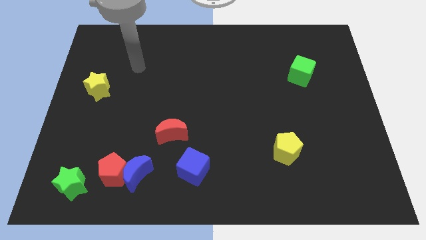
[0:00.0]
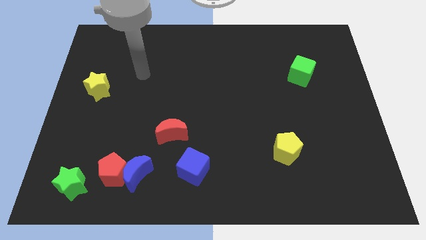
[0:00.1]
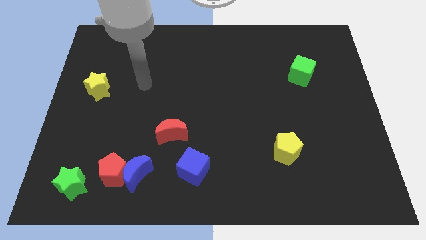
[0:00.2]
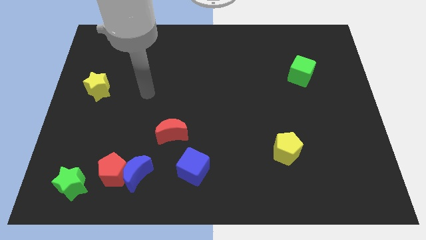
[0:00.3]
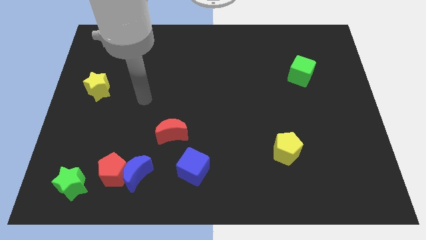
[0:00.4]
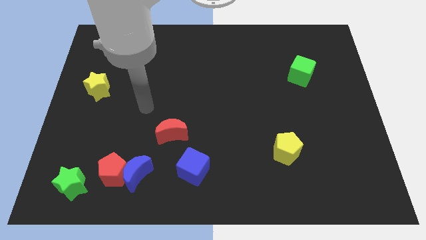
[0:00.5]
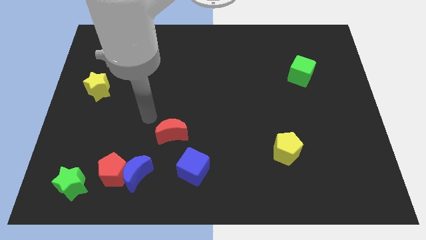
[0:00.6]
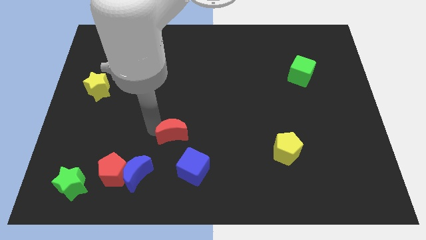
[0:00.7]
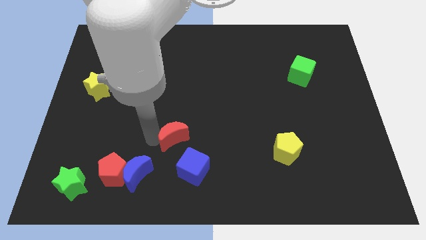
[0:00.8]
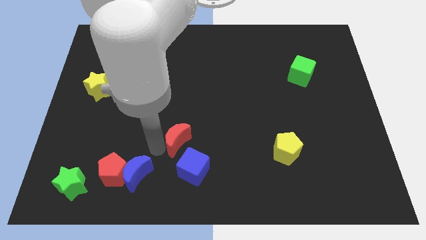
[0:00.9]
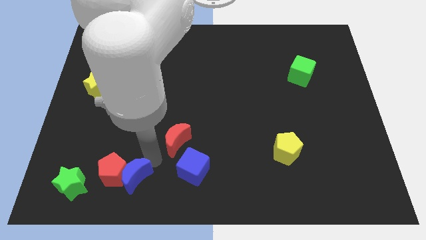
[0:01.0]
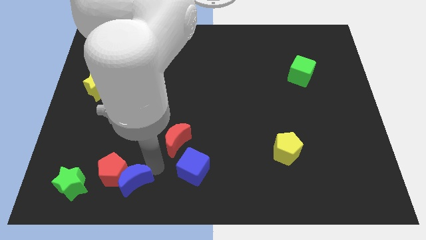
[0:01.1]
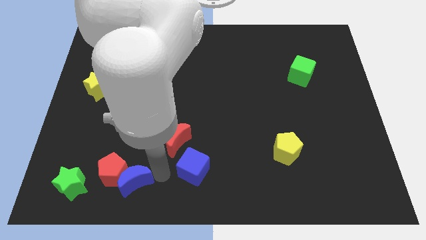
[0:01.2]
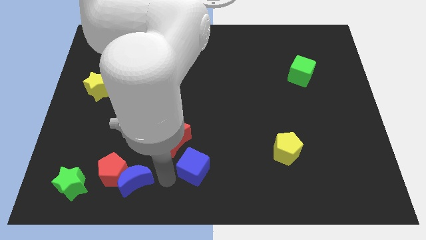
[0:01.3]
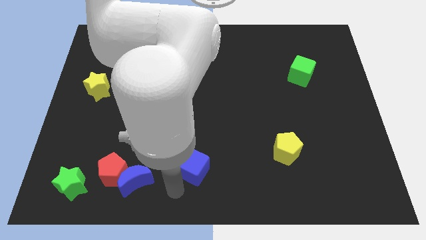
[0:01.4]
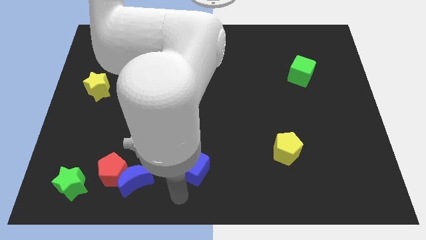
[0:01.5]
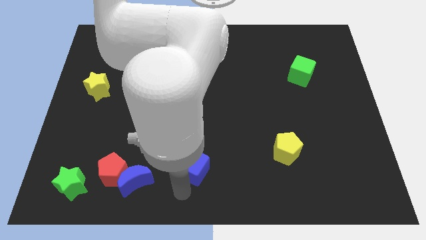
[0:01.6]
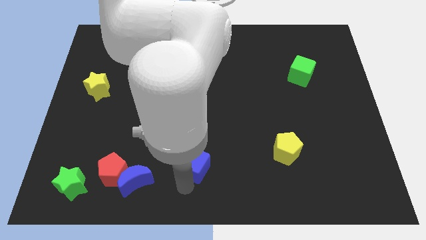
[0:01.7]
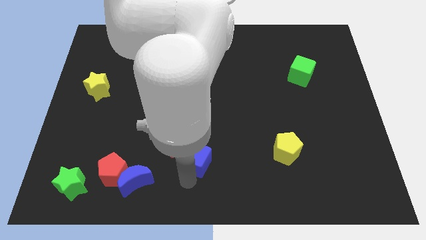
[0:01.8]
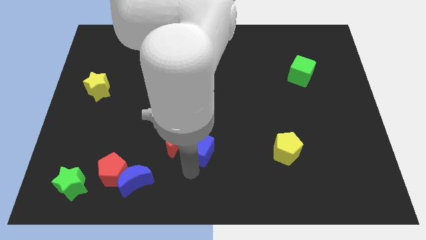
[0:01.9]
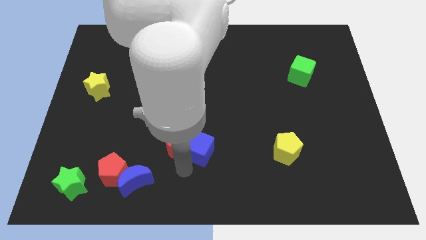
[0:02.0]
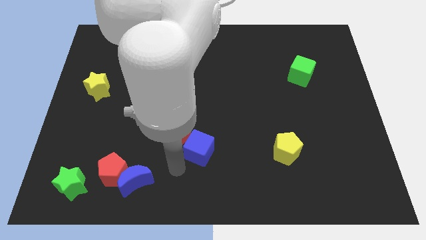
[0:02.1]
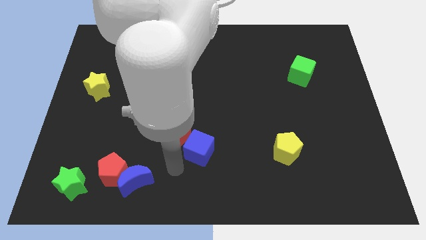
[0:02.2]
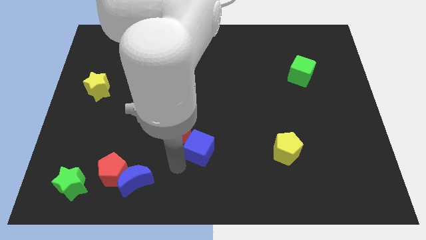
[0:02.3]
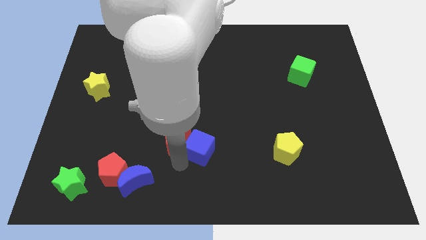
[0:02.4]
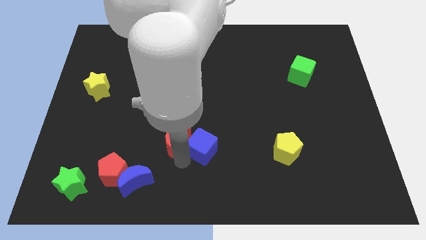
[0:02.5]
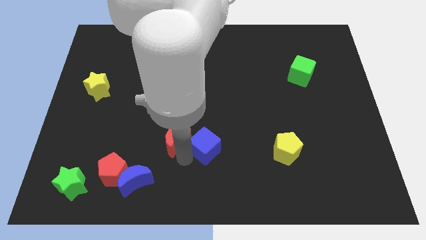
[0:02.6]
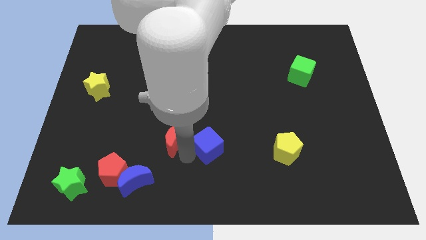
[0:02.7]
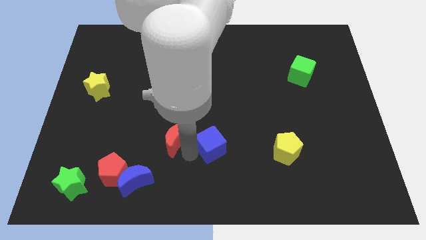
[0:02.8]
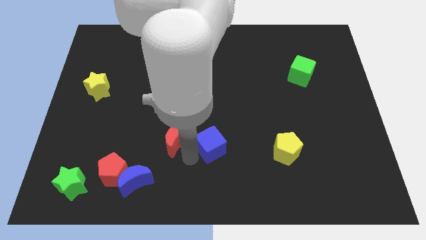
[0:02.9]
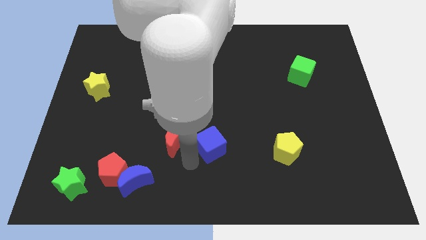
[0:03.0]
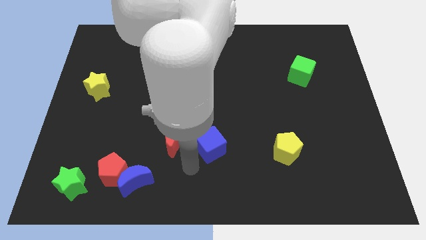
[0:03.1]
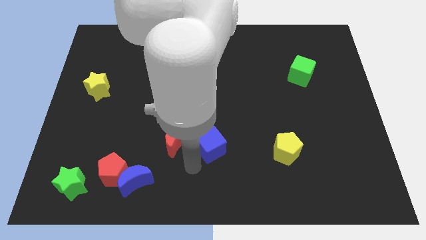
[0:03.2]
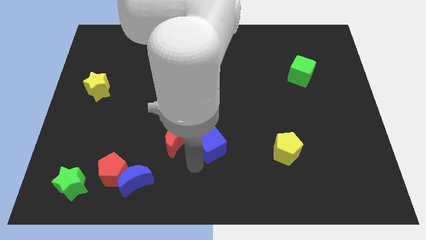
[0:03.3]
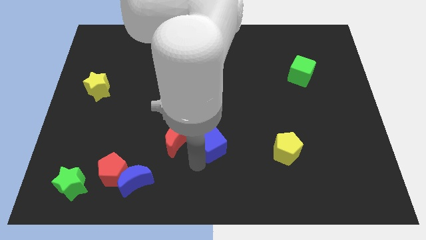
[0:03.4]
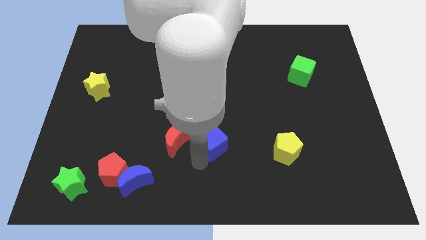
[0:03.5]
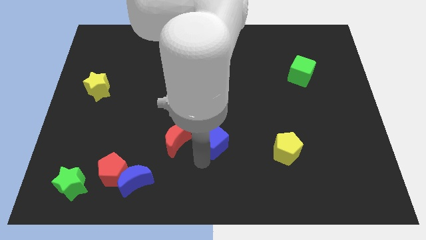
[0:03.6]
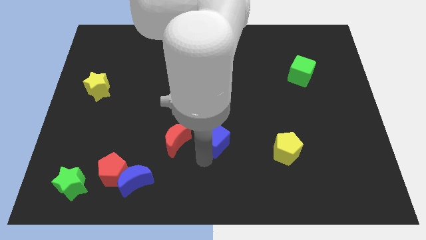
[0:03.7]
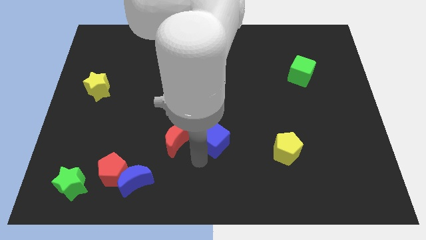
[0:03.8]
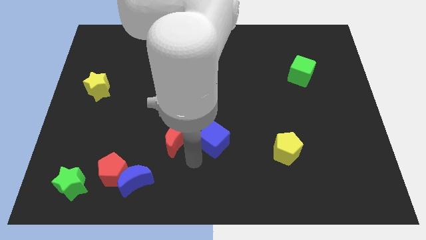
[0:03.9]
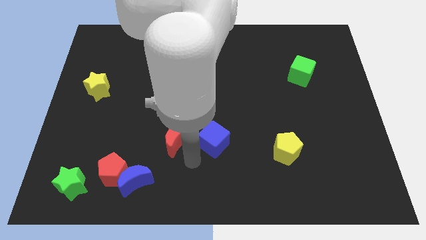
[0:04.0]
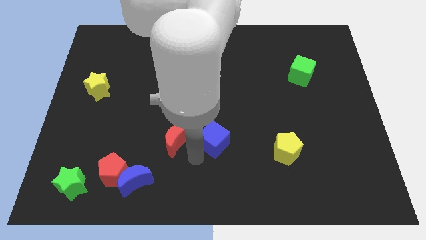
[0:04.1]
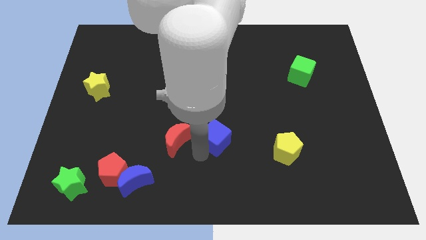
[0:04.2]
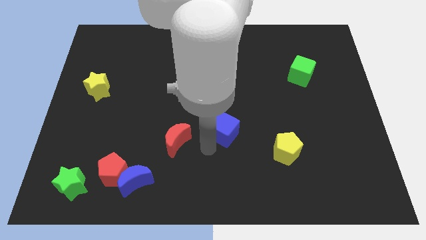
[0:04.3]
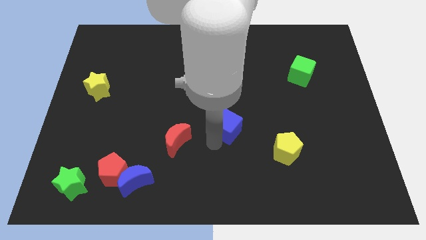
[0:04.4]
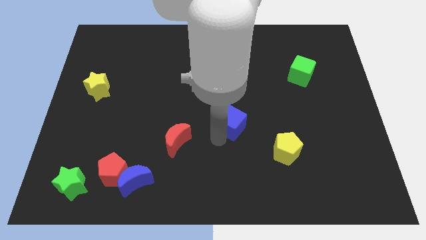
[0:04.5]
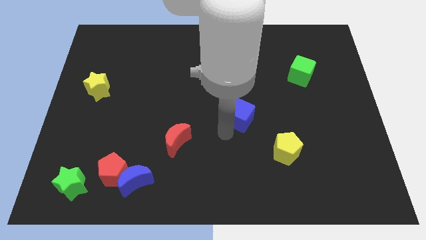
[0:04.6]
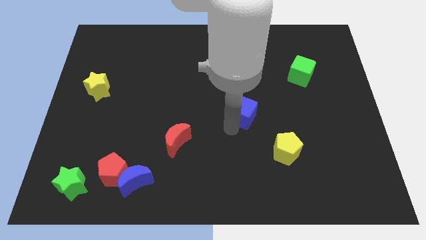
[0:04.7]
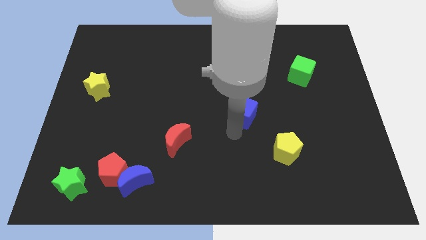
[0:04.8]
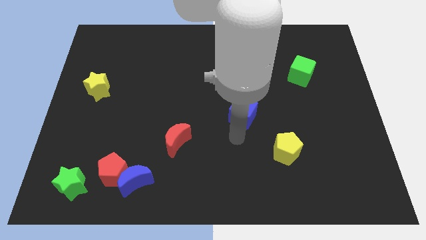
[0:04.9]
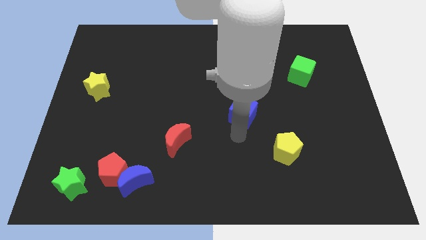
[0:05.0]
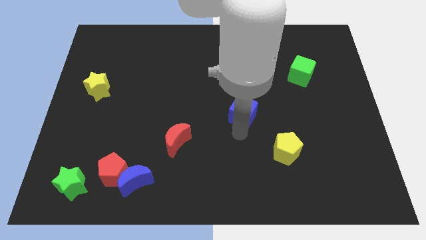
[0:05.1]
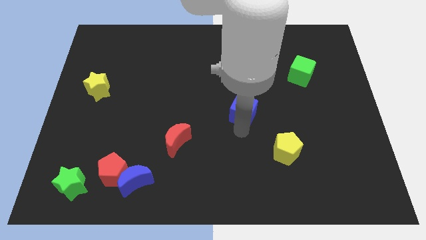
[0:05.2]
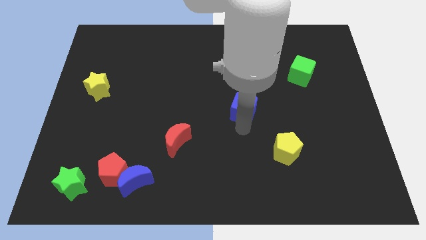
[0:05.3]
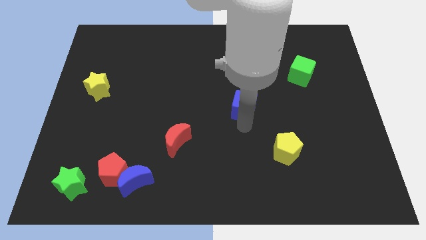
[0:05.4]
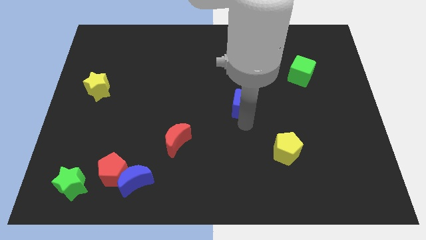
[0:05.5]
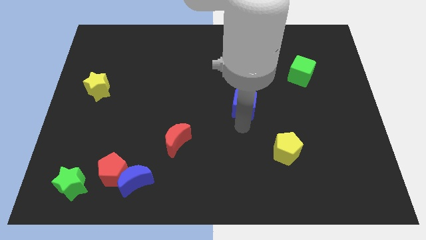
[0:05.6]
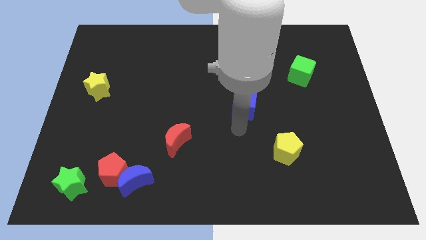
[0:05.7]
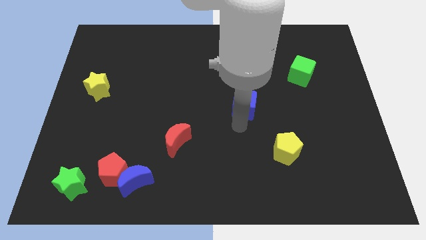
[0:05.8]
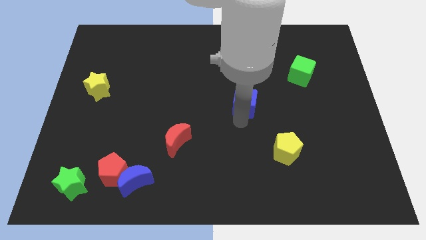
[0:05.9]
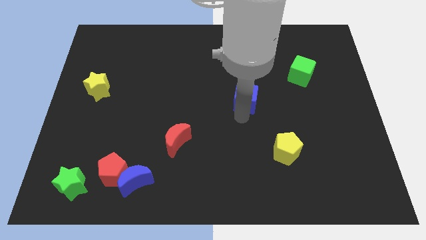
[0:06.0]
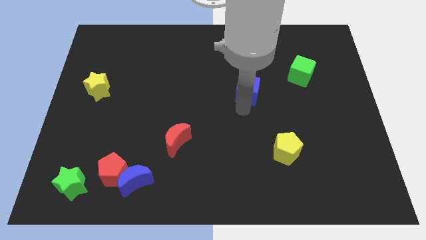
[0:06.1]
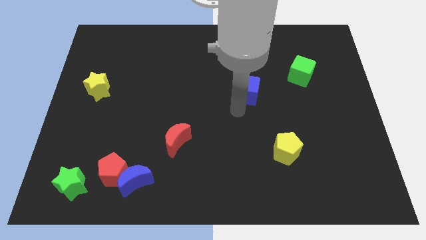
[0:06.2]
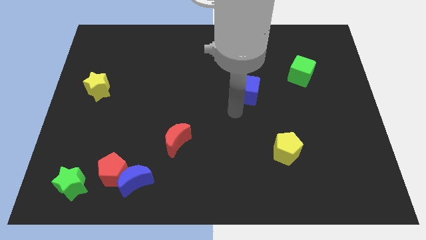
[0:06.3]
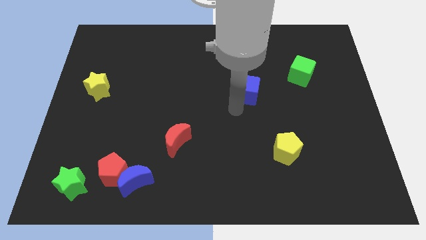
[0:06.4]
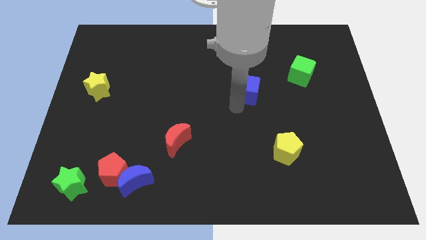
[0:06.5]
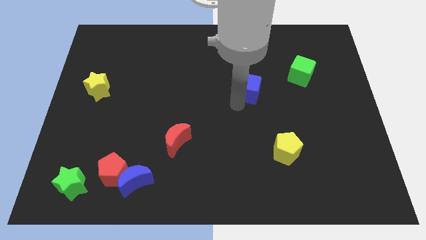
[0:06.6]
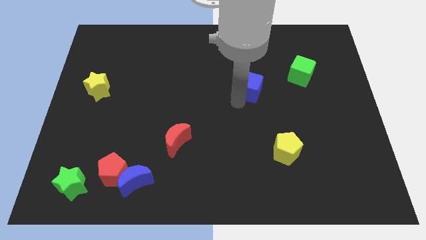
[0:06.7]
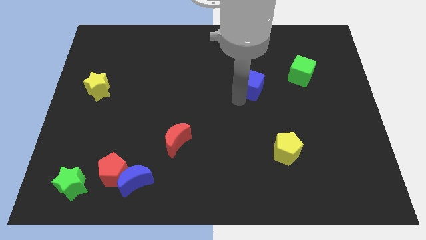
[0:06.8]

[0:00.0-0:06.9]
move the blue cube to the left side of the green cube

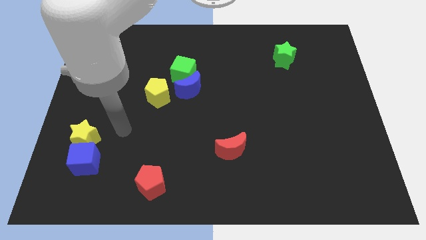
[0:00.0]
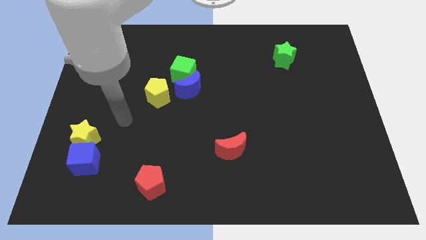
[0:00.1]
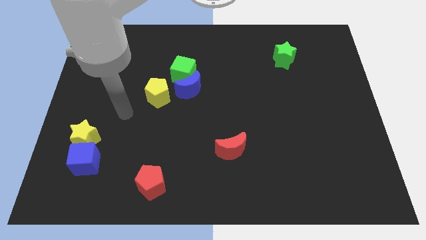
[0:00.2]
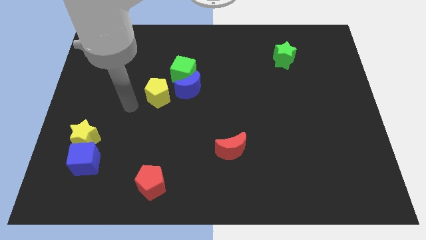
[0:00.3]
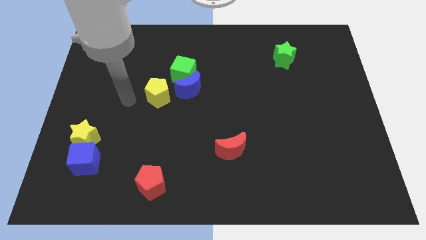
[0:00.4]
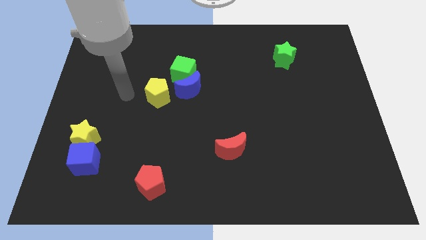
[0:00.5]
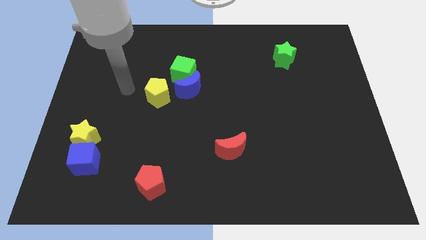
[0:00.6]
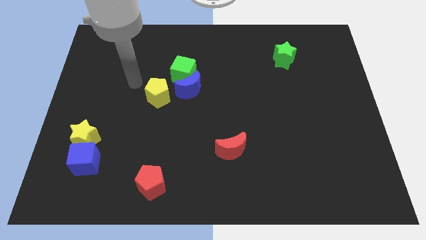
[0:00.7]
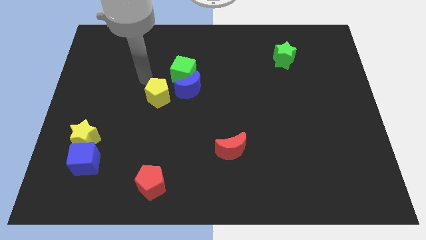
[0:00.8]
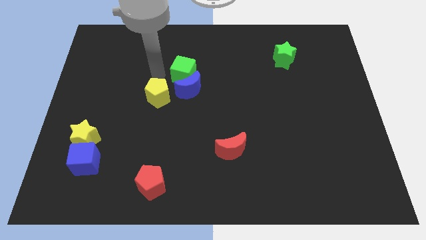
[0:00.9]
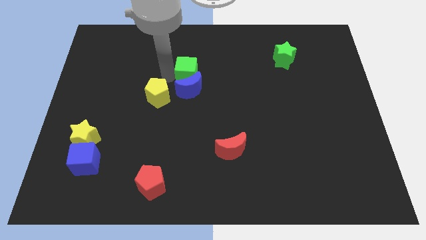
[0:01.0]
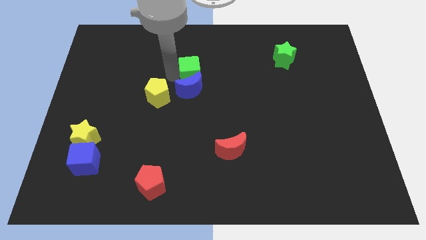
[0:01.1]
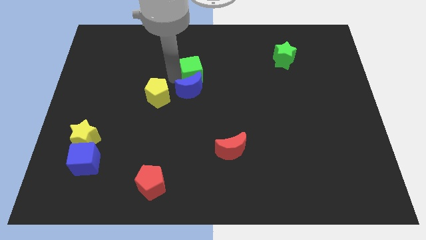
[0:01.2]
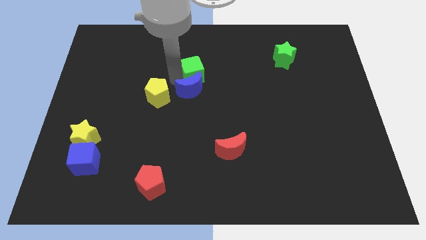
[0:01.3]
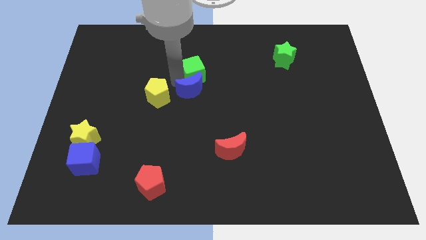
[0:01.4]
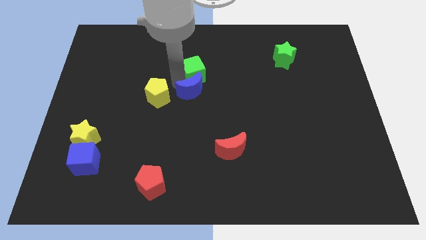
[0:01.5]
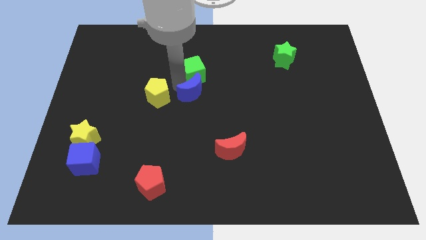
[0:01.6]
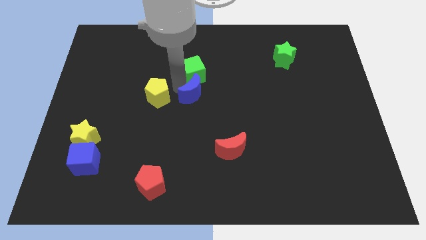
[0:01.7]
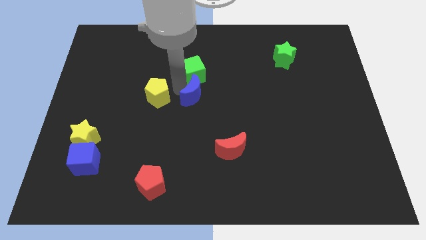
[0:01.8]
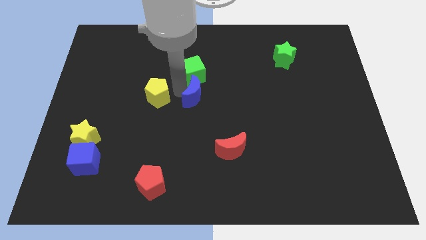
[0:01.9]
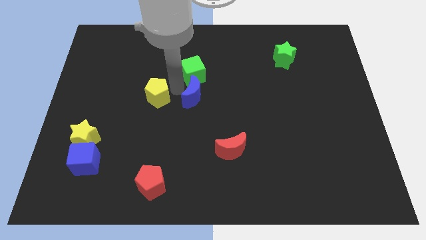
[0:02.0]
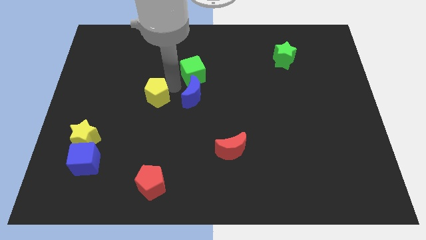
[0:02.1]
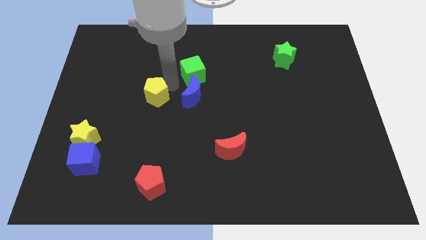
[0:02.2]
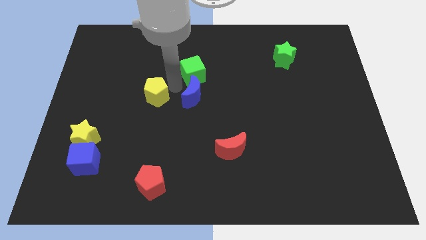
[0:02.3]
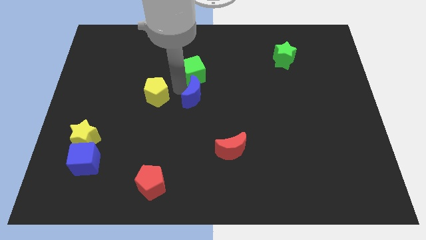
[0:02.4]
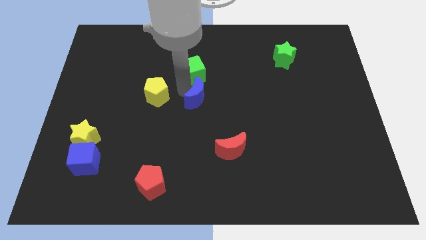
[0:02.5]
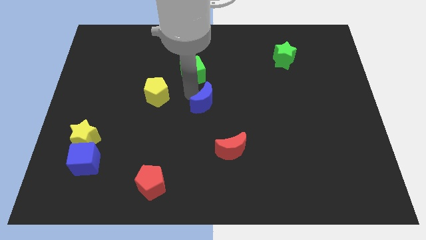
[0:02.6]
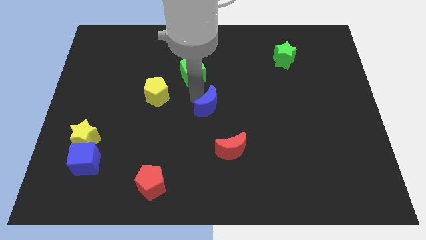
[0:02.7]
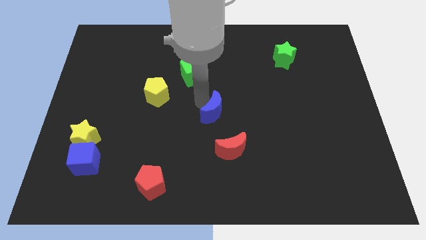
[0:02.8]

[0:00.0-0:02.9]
slide the blue moon to the top side of the red moon
